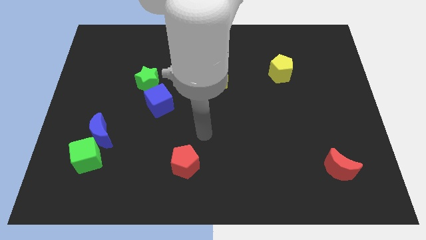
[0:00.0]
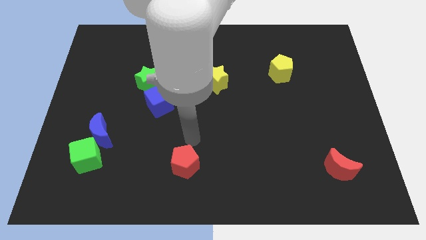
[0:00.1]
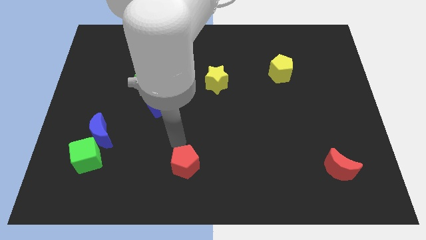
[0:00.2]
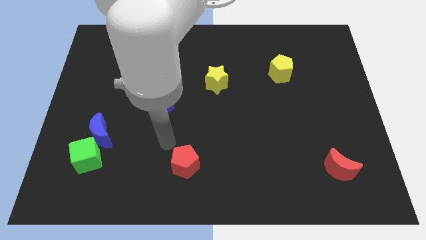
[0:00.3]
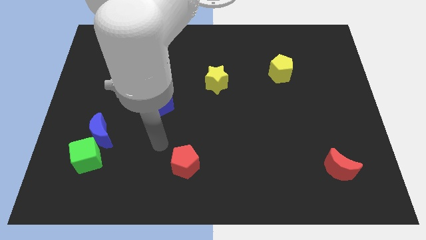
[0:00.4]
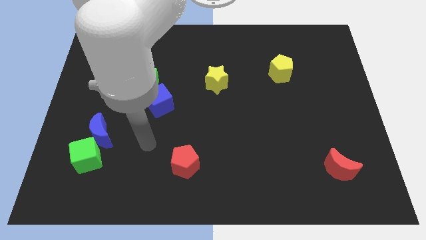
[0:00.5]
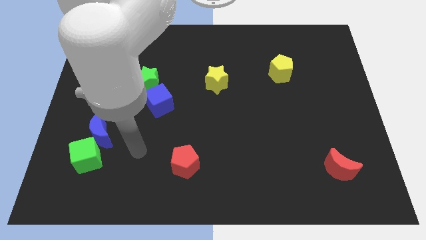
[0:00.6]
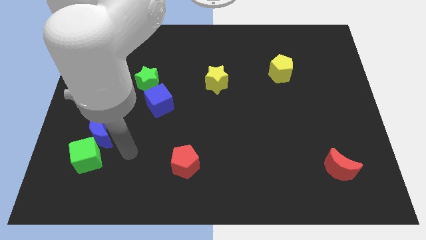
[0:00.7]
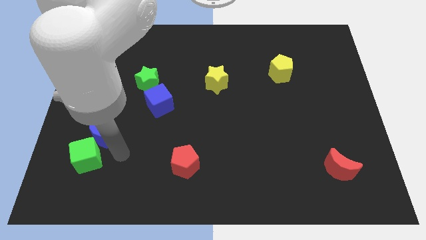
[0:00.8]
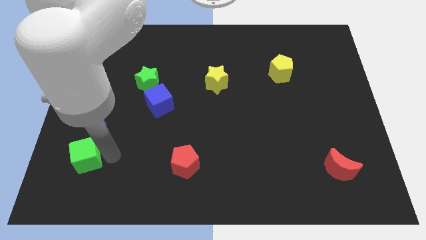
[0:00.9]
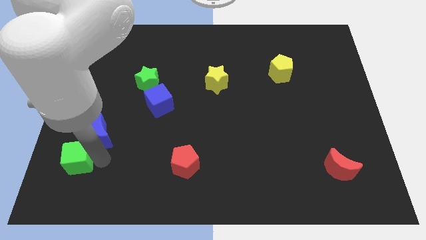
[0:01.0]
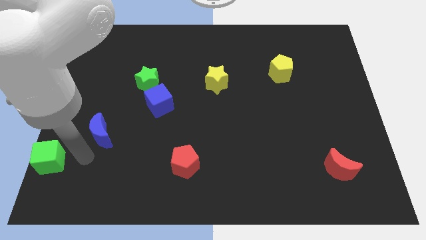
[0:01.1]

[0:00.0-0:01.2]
separate the blue moon from the green cube

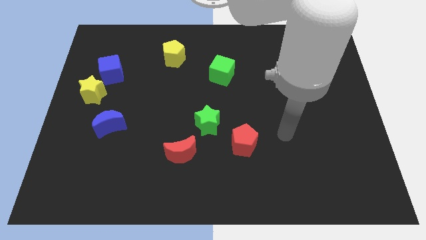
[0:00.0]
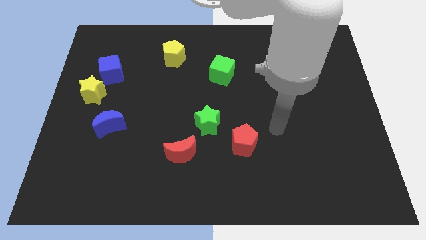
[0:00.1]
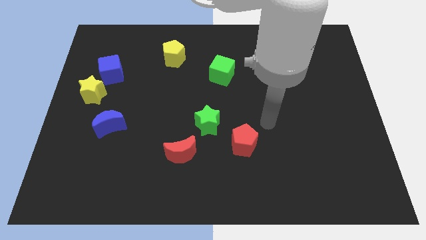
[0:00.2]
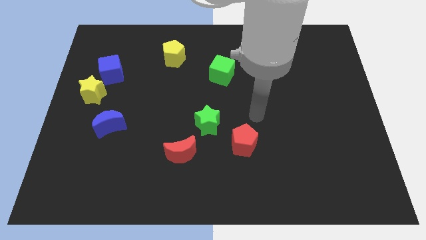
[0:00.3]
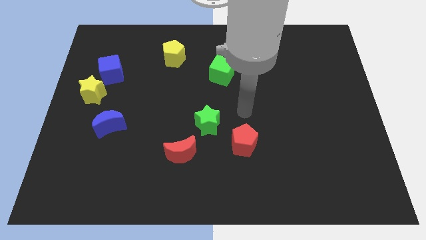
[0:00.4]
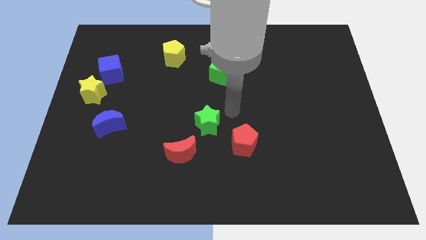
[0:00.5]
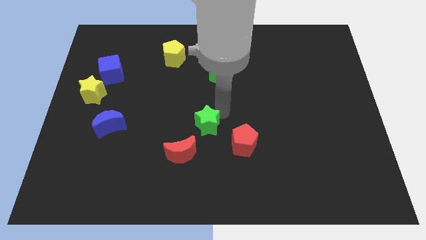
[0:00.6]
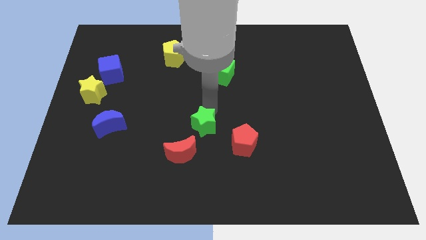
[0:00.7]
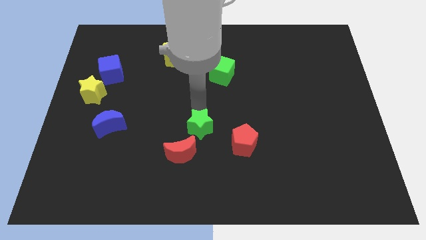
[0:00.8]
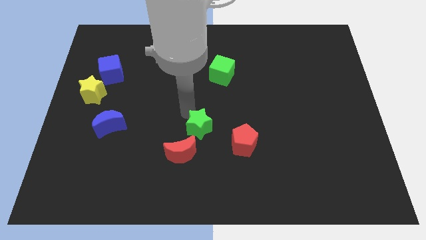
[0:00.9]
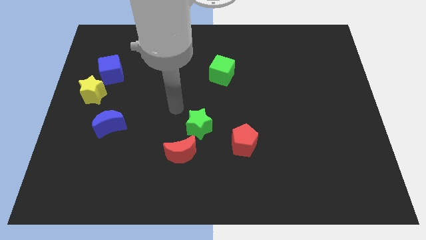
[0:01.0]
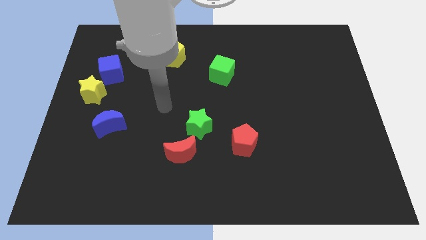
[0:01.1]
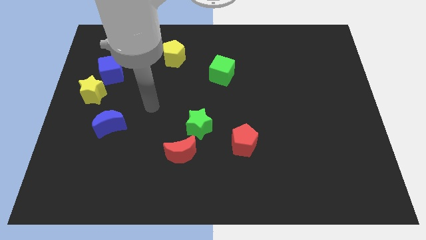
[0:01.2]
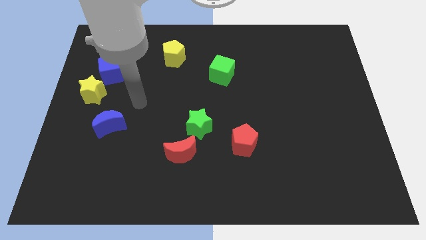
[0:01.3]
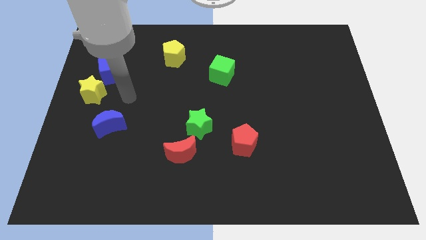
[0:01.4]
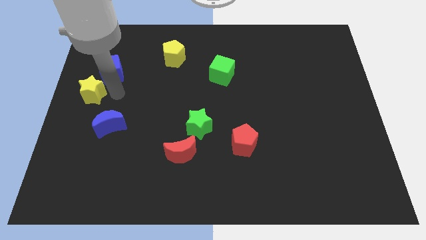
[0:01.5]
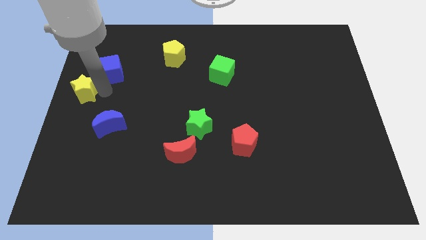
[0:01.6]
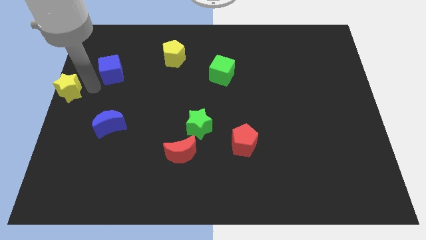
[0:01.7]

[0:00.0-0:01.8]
move the blue cube away from the yellow star

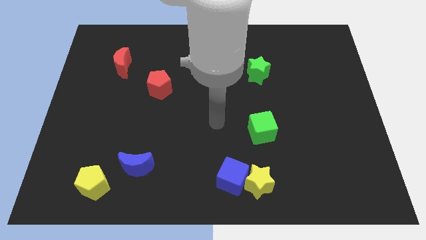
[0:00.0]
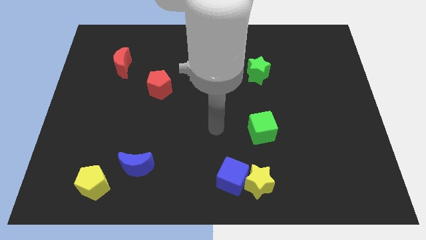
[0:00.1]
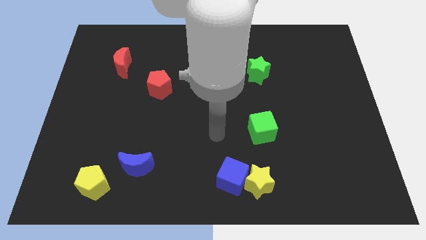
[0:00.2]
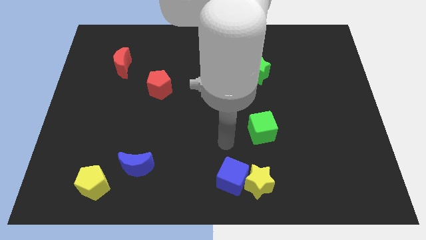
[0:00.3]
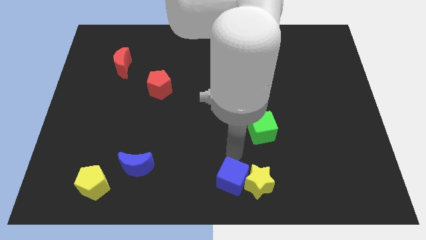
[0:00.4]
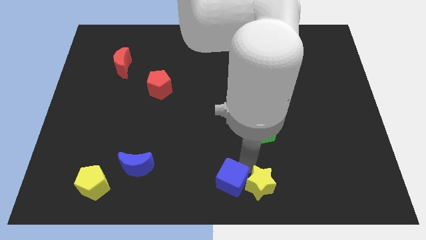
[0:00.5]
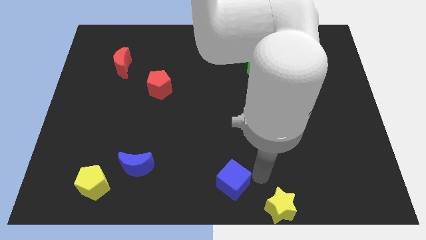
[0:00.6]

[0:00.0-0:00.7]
separate the blue cube from the yellow star

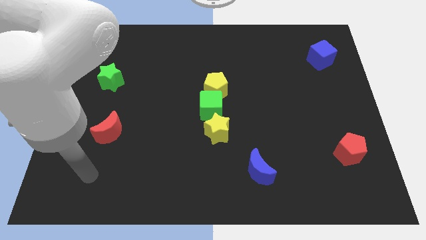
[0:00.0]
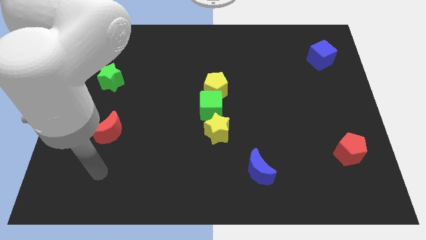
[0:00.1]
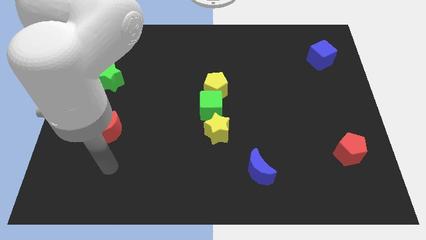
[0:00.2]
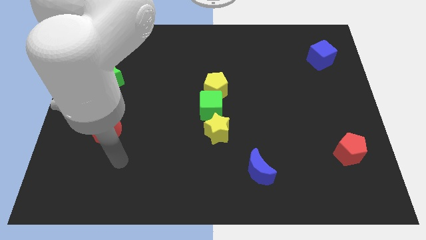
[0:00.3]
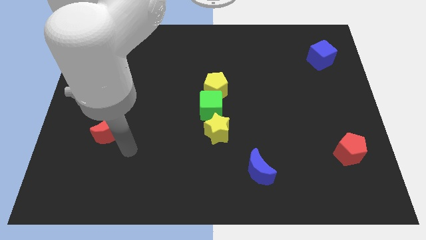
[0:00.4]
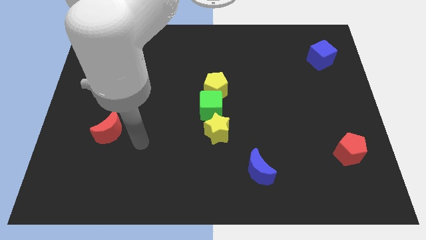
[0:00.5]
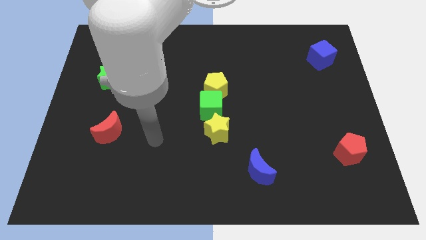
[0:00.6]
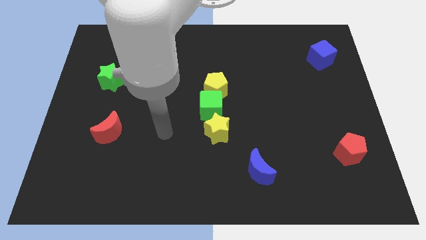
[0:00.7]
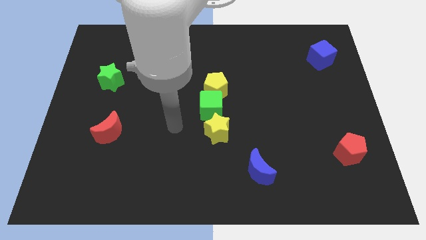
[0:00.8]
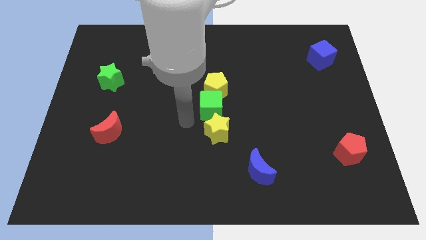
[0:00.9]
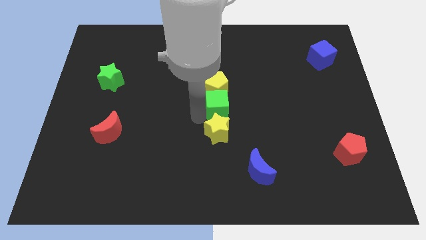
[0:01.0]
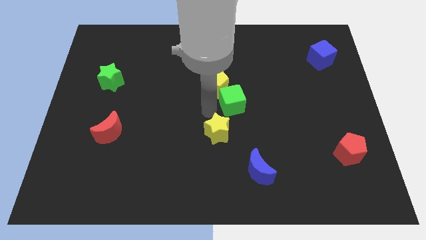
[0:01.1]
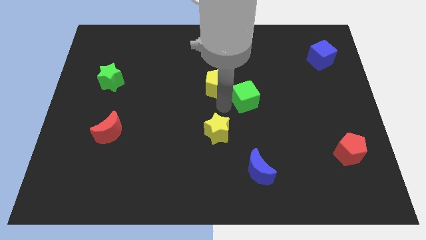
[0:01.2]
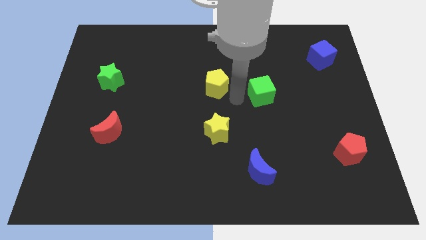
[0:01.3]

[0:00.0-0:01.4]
separate the yellow pentagon from the green cube

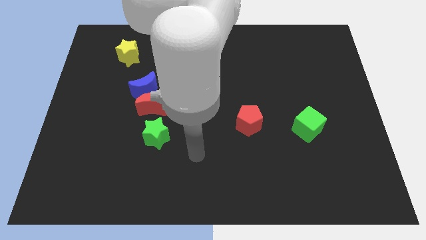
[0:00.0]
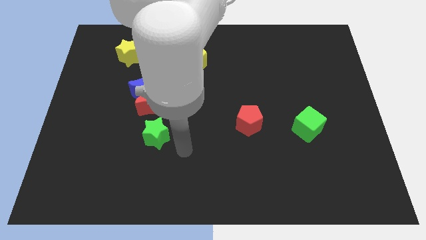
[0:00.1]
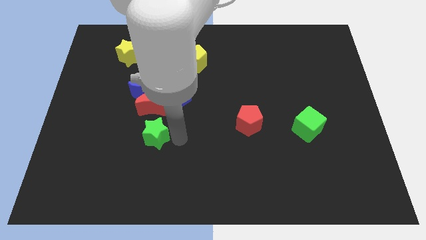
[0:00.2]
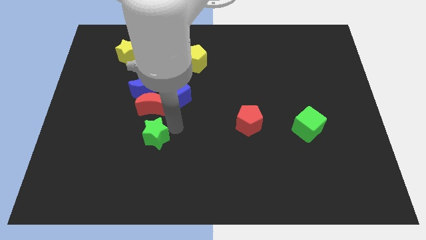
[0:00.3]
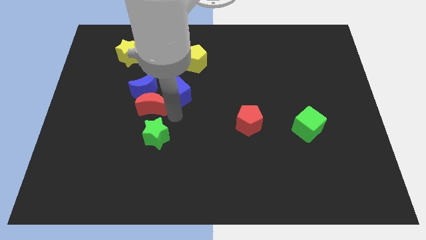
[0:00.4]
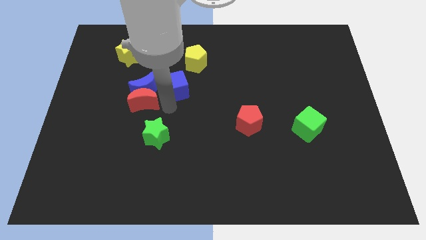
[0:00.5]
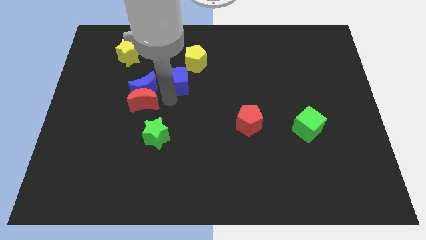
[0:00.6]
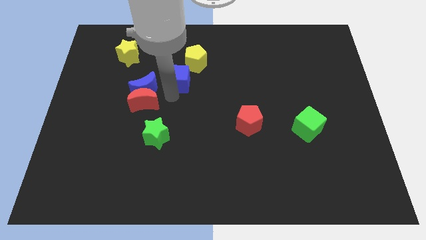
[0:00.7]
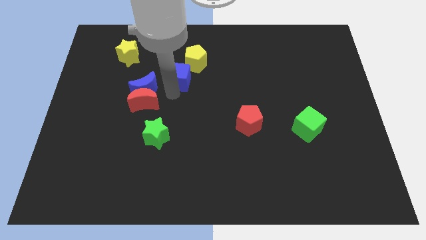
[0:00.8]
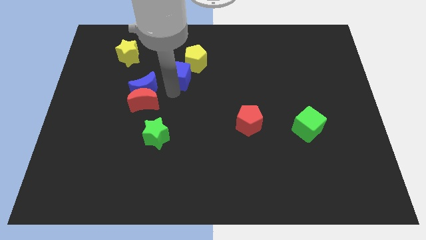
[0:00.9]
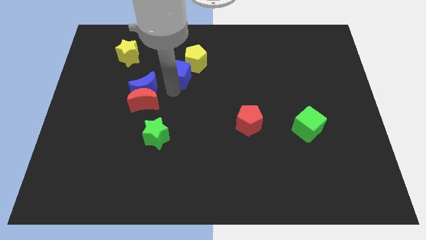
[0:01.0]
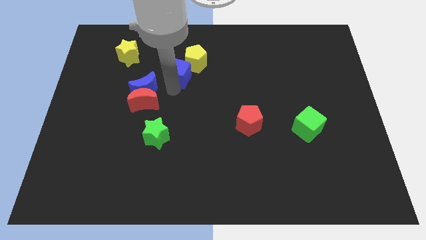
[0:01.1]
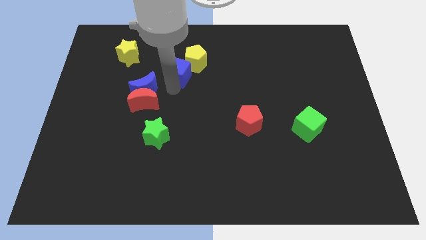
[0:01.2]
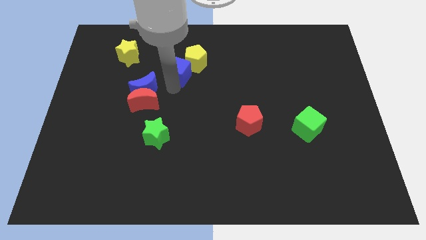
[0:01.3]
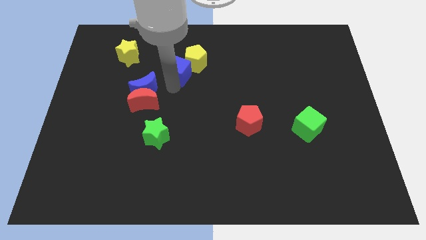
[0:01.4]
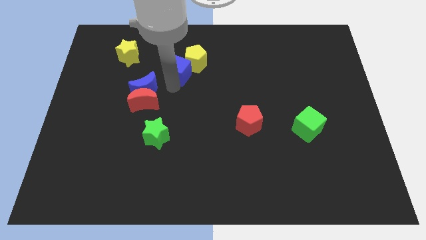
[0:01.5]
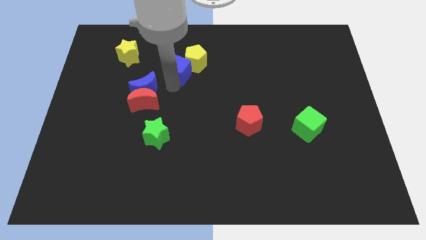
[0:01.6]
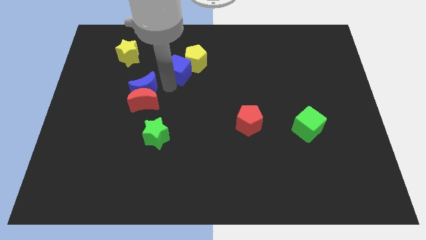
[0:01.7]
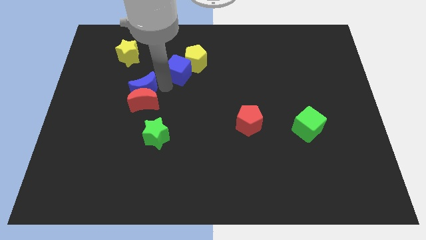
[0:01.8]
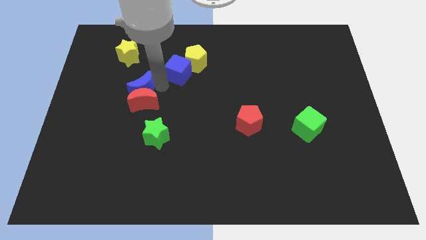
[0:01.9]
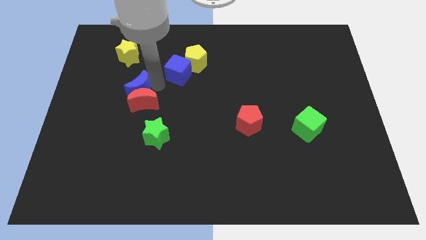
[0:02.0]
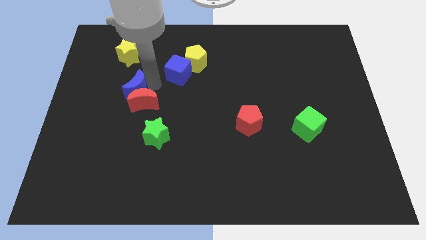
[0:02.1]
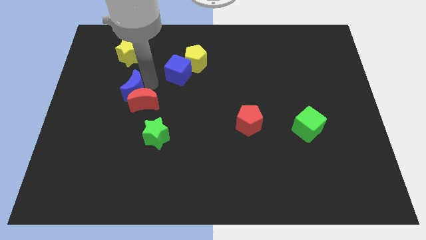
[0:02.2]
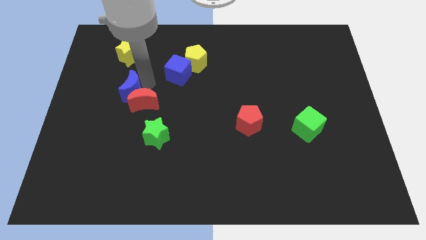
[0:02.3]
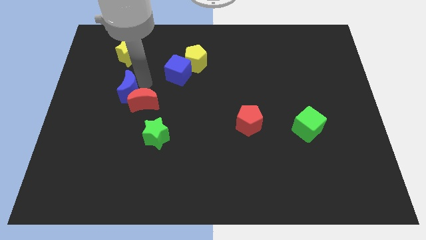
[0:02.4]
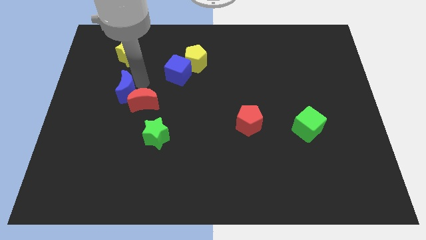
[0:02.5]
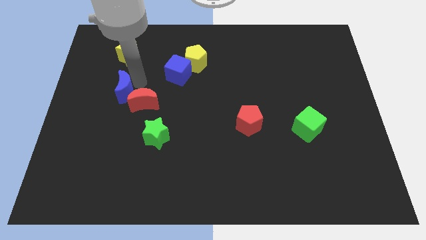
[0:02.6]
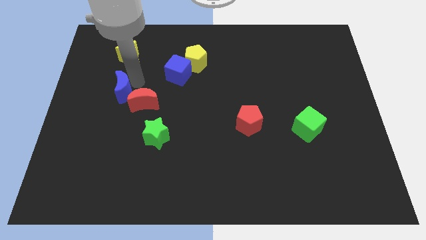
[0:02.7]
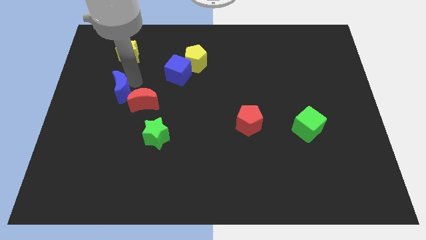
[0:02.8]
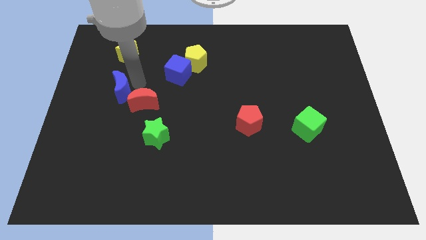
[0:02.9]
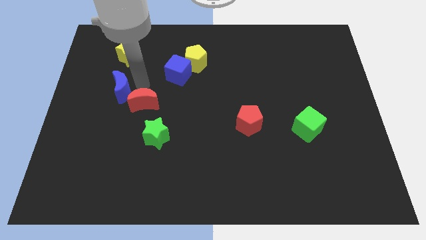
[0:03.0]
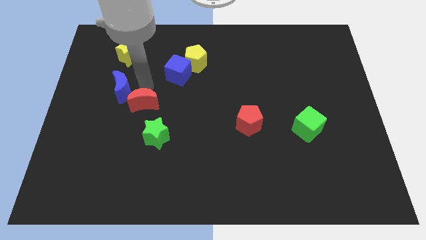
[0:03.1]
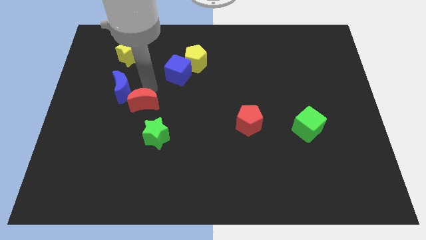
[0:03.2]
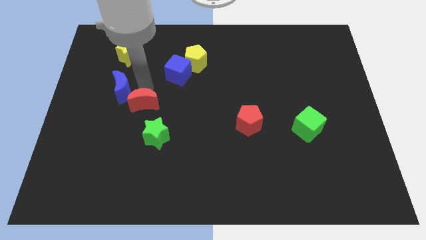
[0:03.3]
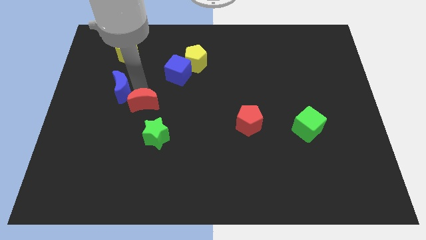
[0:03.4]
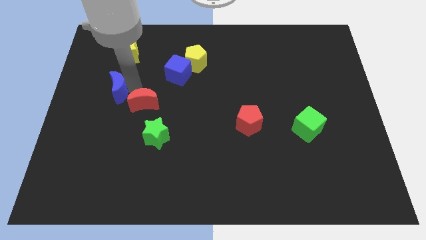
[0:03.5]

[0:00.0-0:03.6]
move the blue moon away from the red moon and blue cube

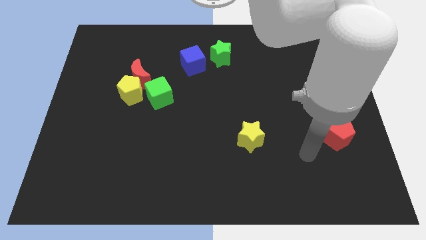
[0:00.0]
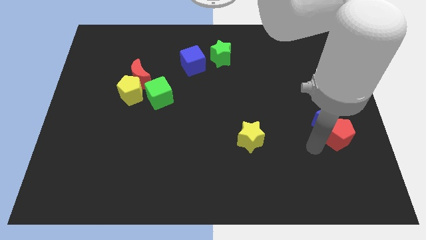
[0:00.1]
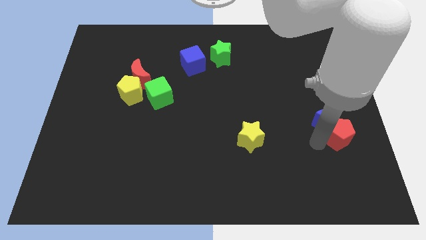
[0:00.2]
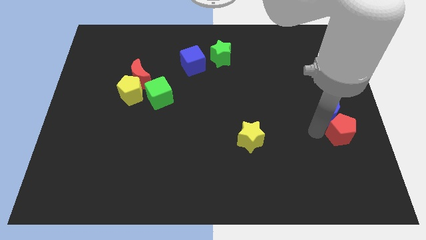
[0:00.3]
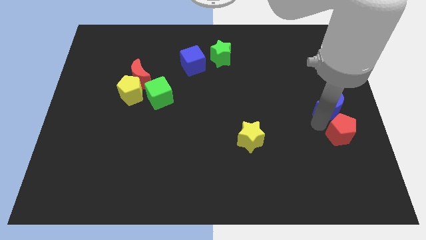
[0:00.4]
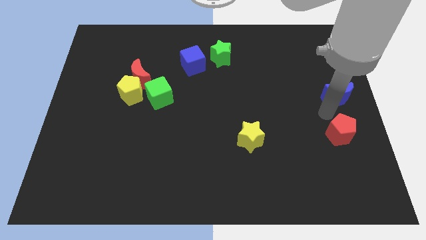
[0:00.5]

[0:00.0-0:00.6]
separate the red pentagon from the blue moon
